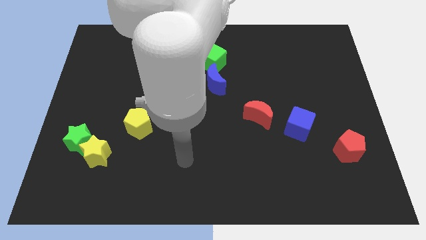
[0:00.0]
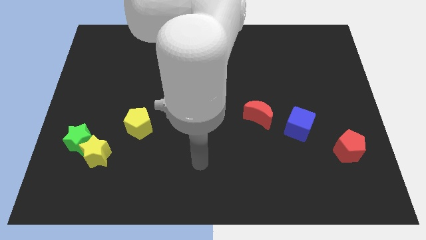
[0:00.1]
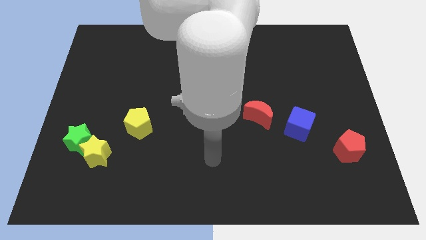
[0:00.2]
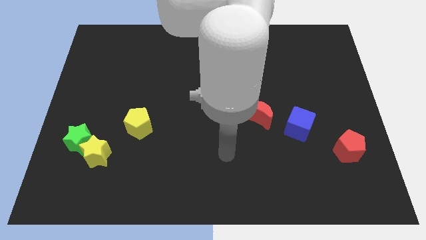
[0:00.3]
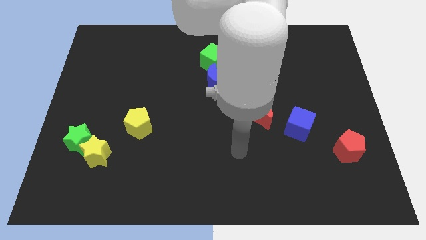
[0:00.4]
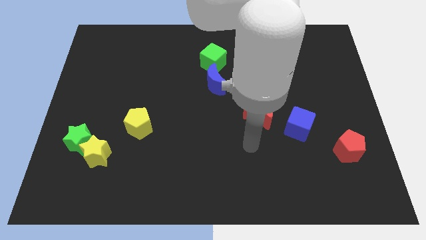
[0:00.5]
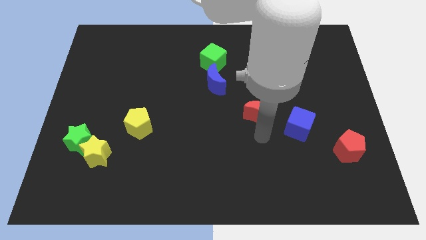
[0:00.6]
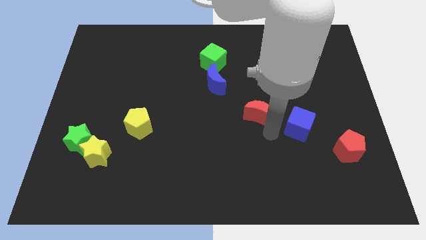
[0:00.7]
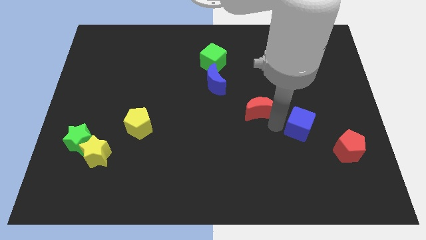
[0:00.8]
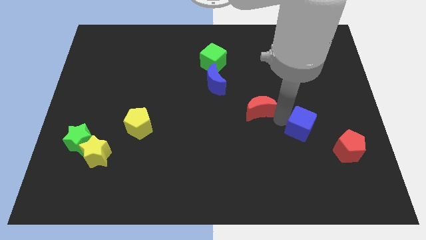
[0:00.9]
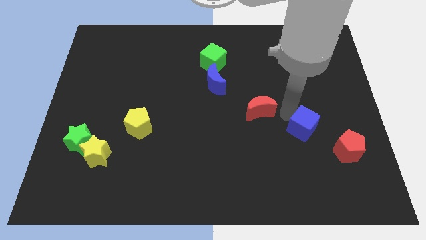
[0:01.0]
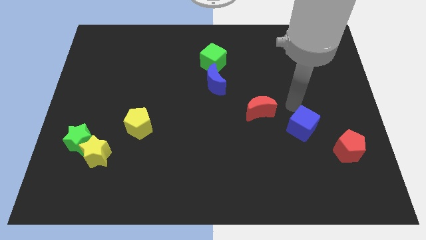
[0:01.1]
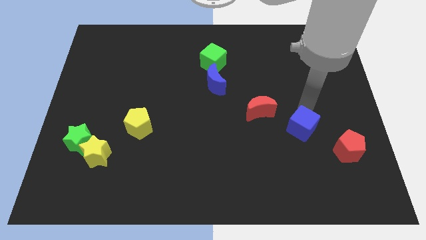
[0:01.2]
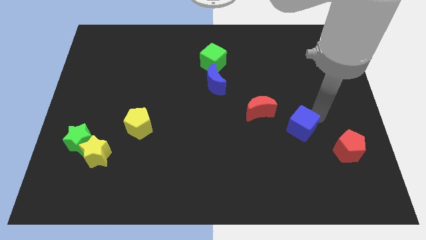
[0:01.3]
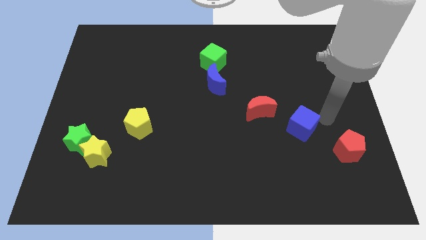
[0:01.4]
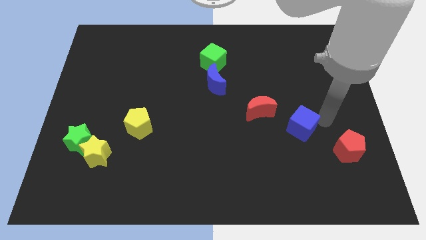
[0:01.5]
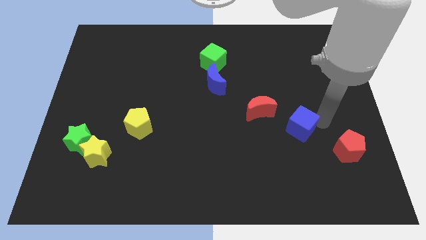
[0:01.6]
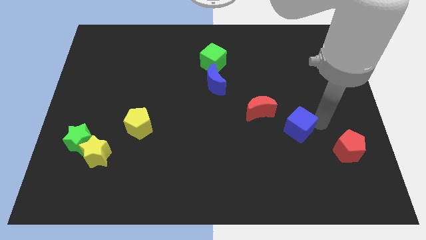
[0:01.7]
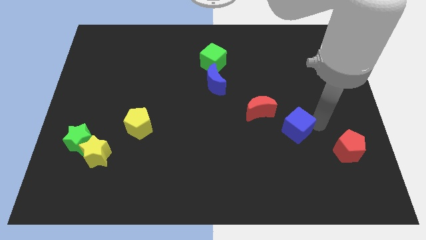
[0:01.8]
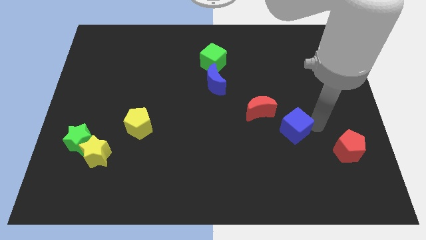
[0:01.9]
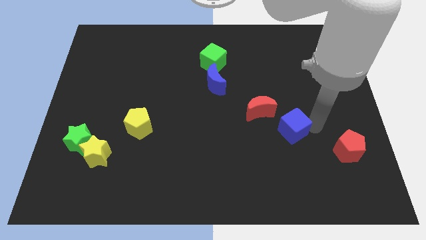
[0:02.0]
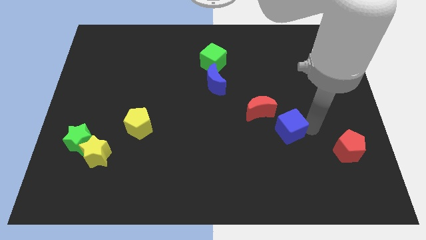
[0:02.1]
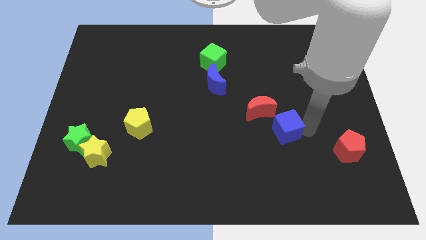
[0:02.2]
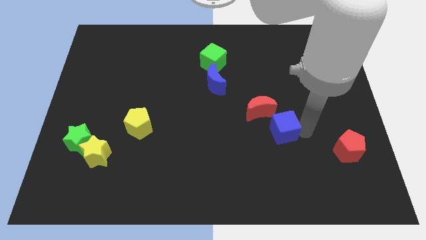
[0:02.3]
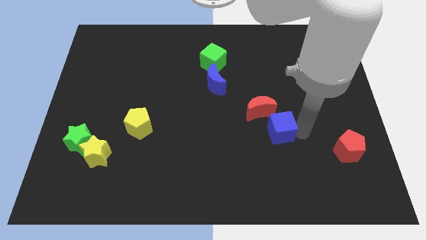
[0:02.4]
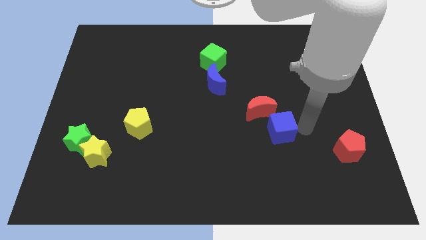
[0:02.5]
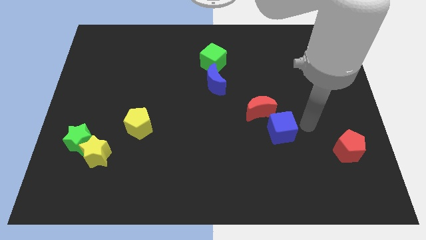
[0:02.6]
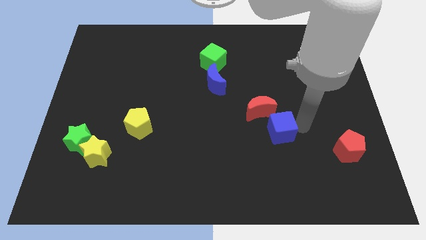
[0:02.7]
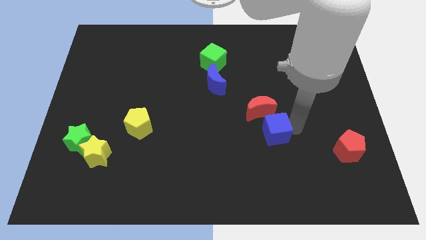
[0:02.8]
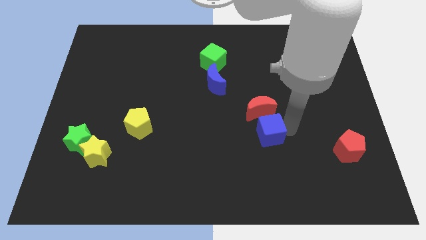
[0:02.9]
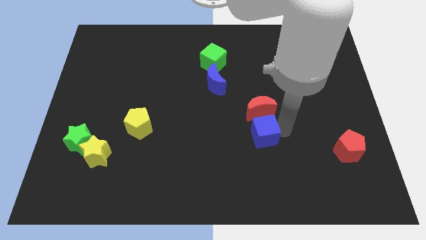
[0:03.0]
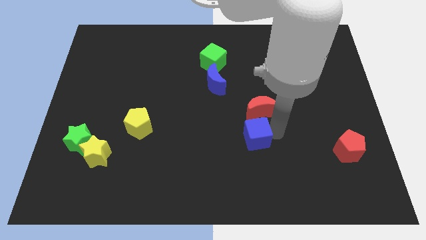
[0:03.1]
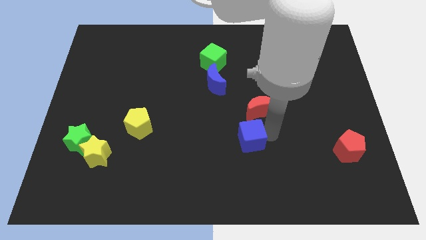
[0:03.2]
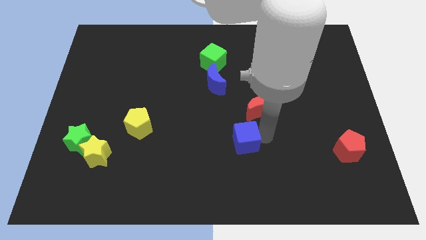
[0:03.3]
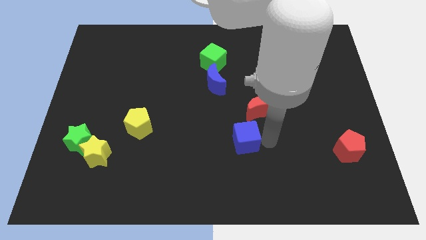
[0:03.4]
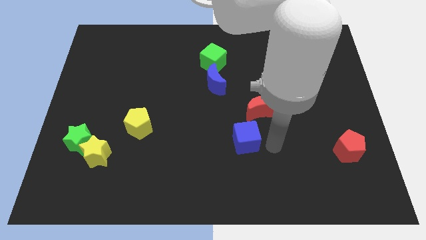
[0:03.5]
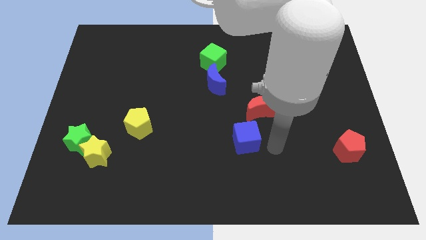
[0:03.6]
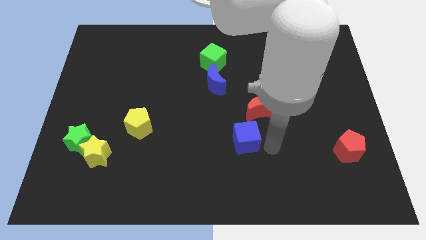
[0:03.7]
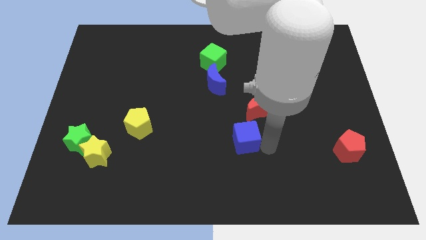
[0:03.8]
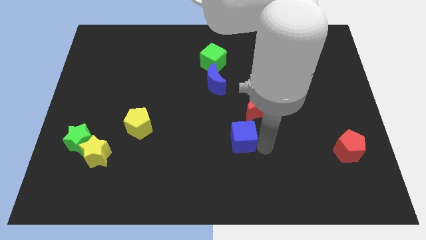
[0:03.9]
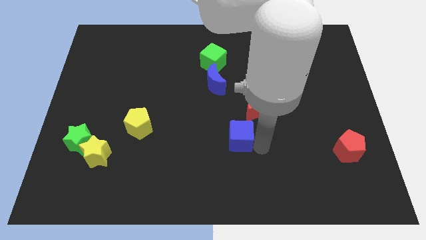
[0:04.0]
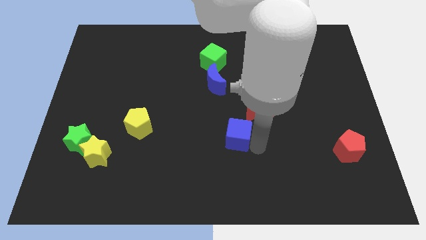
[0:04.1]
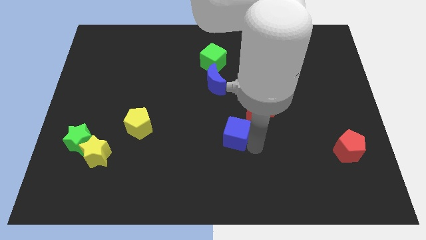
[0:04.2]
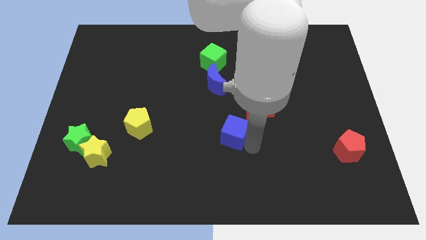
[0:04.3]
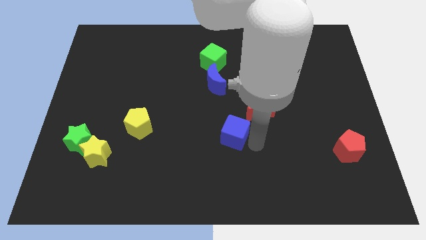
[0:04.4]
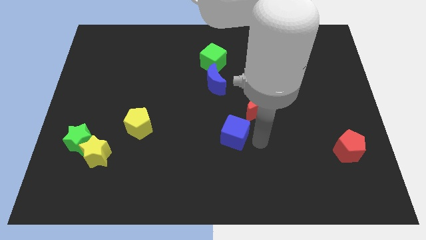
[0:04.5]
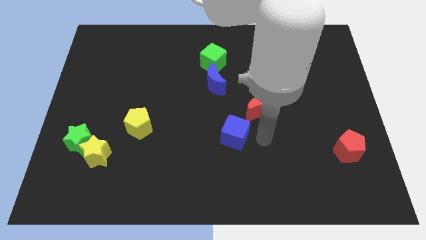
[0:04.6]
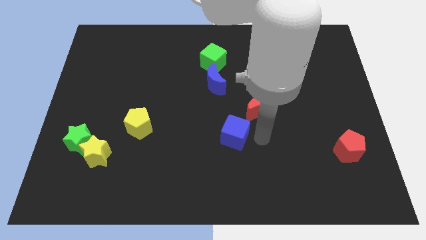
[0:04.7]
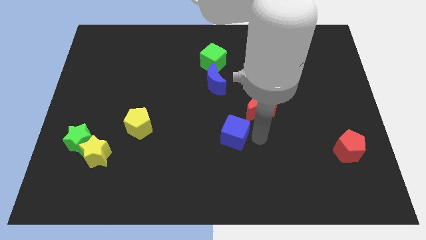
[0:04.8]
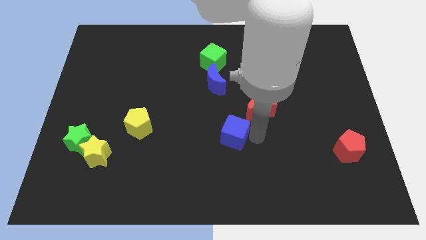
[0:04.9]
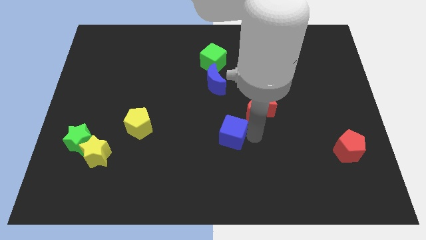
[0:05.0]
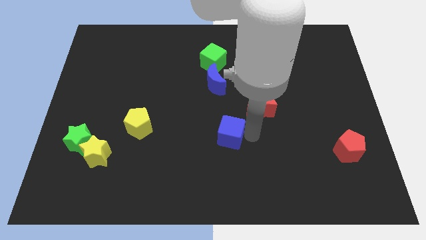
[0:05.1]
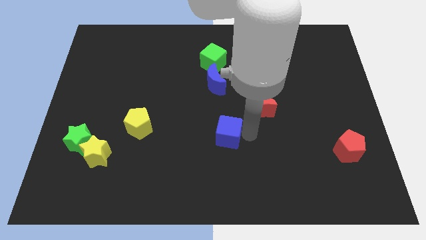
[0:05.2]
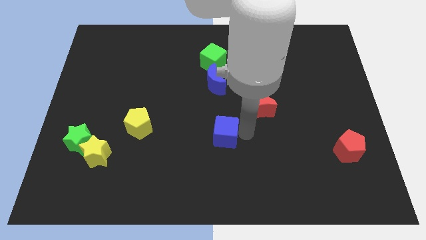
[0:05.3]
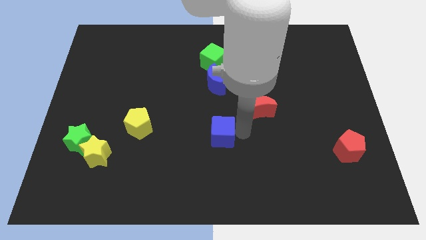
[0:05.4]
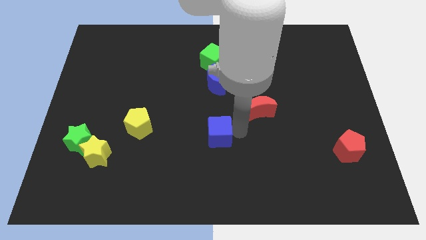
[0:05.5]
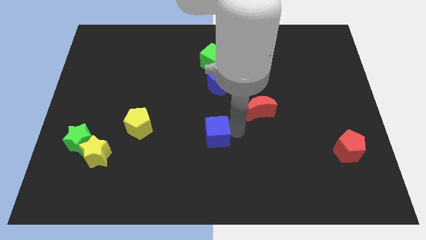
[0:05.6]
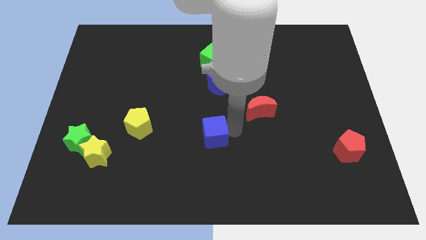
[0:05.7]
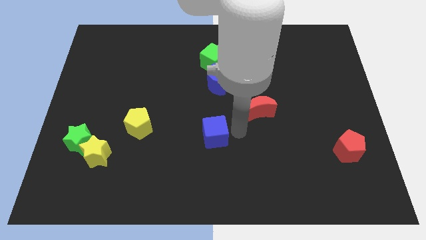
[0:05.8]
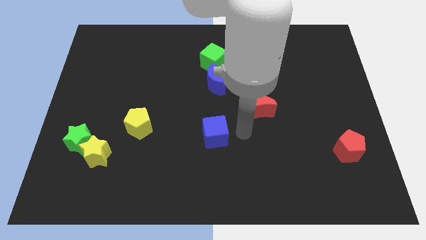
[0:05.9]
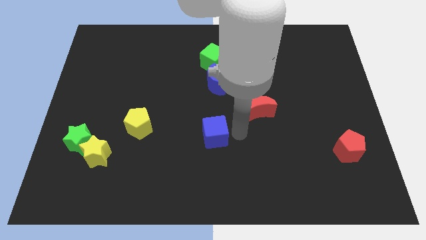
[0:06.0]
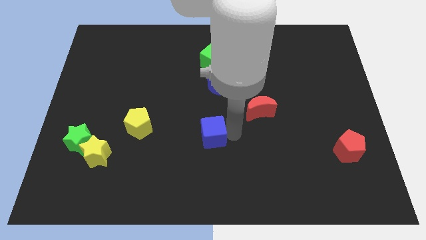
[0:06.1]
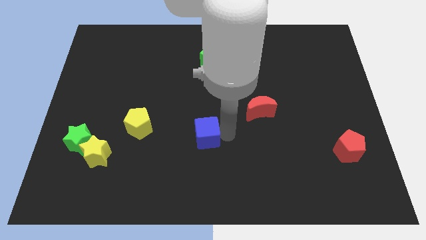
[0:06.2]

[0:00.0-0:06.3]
slide the blue cube right of the yellow pentagon
